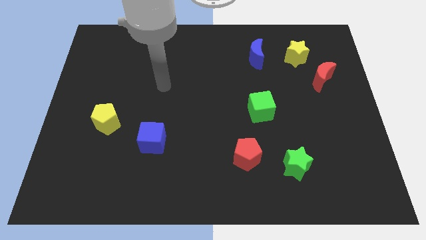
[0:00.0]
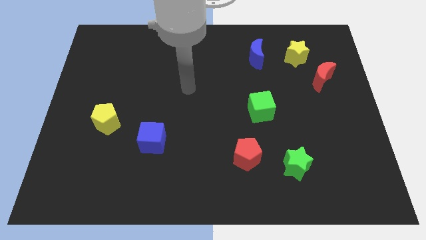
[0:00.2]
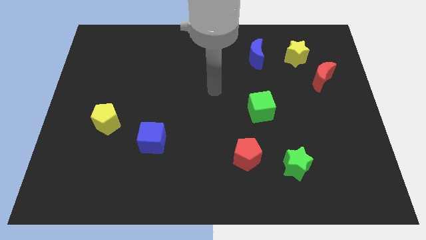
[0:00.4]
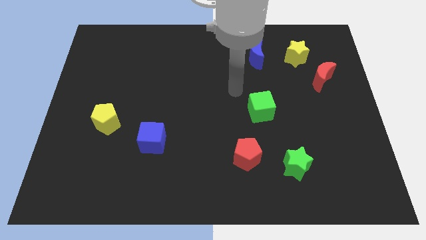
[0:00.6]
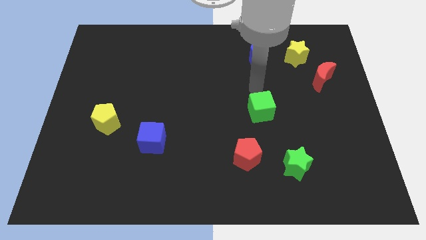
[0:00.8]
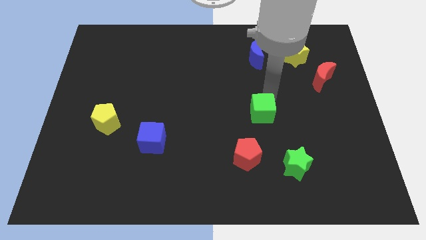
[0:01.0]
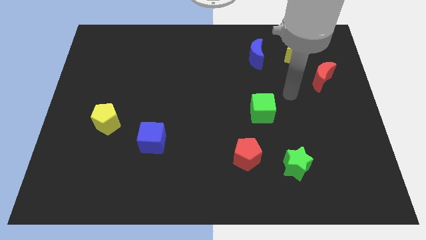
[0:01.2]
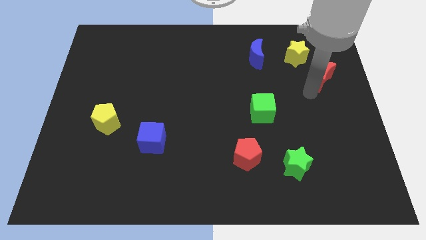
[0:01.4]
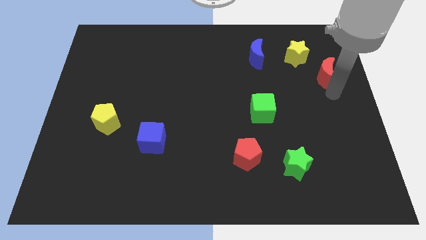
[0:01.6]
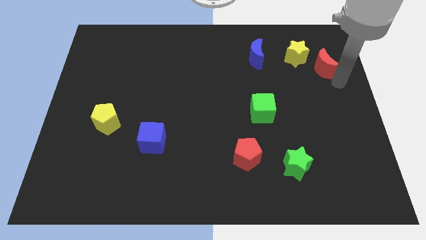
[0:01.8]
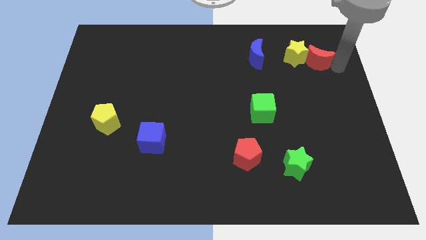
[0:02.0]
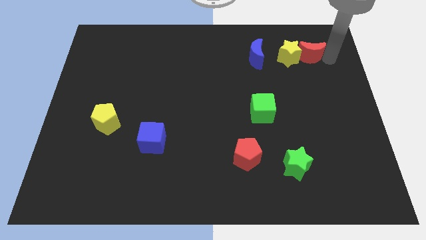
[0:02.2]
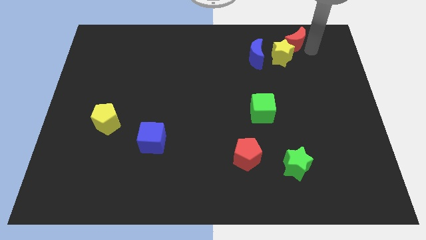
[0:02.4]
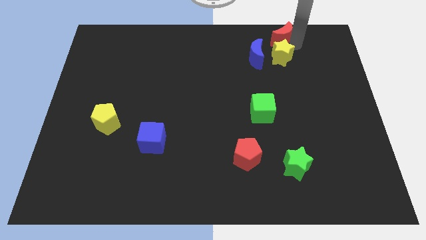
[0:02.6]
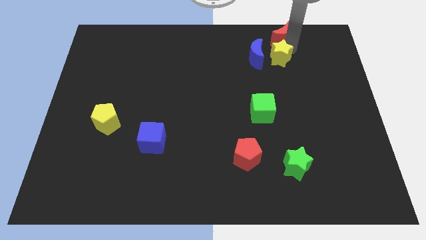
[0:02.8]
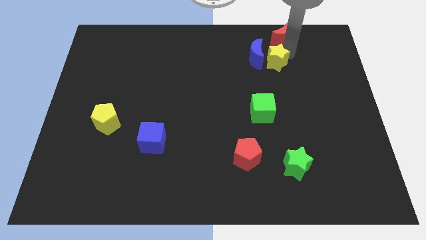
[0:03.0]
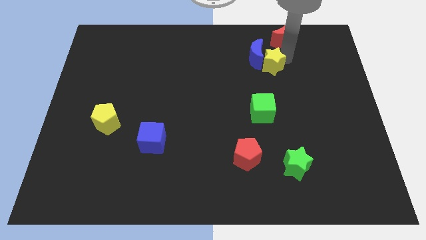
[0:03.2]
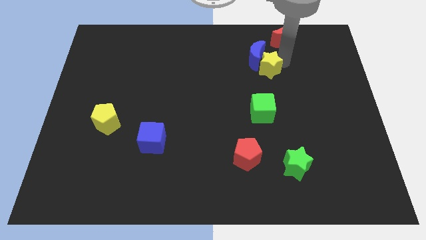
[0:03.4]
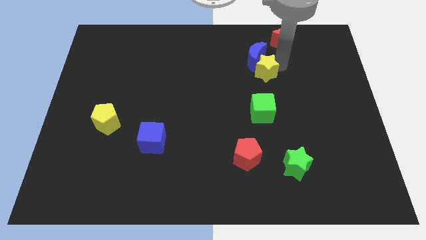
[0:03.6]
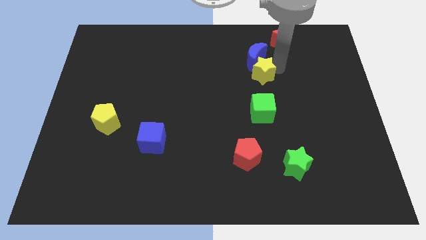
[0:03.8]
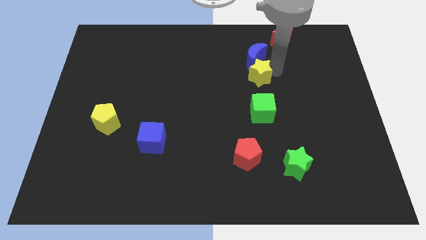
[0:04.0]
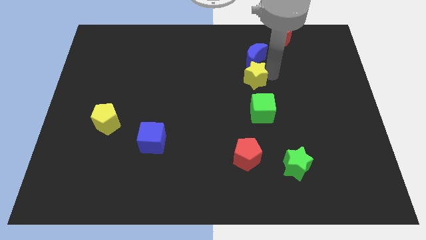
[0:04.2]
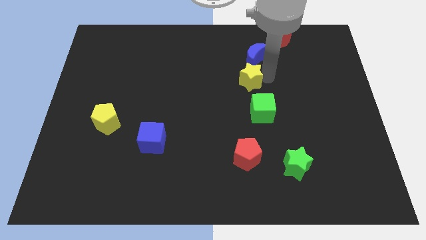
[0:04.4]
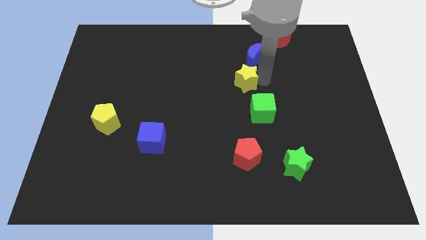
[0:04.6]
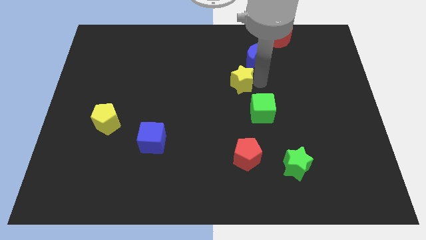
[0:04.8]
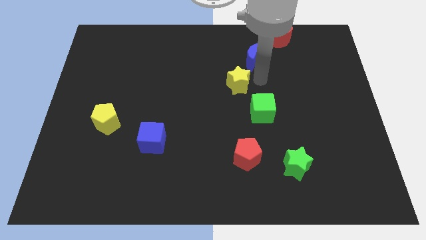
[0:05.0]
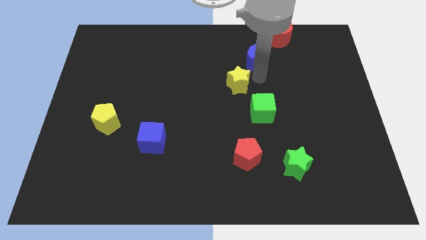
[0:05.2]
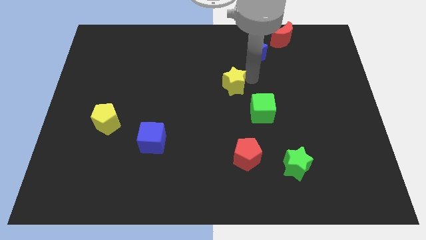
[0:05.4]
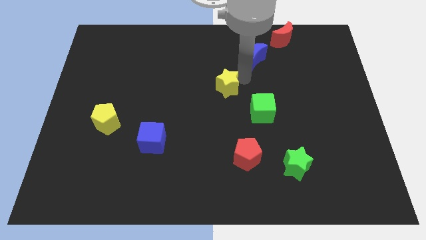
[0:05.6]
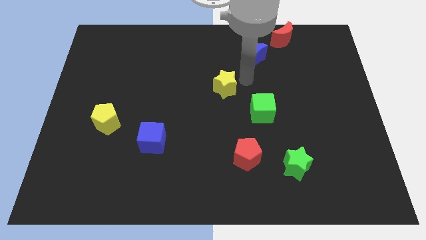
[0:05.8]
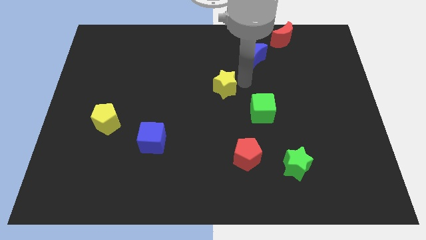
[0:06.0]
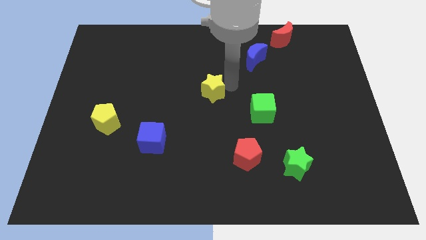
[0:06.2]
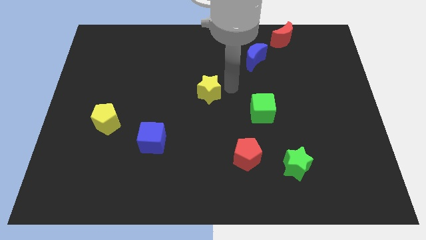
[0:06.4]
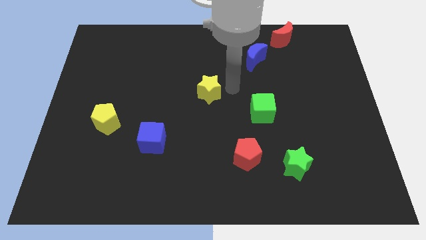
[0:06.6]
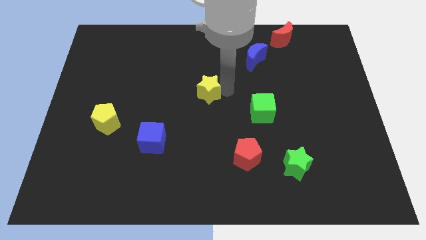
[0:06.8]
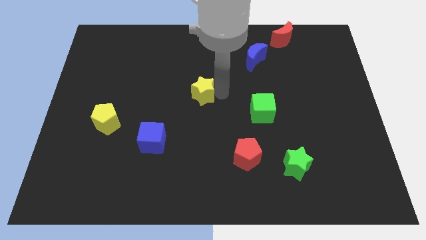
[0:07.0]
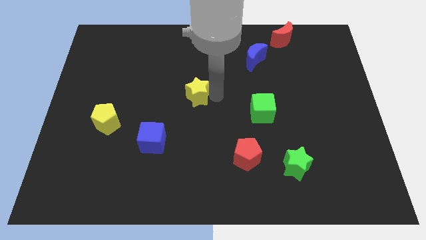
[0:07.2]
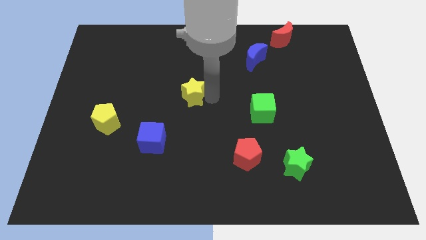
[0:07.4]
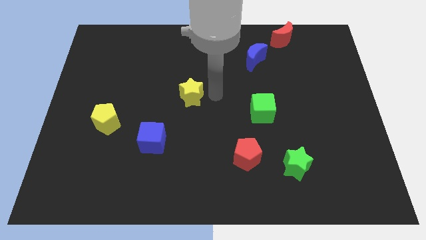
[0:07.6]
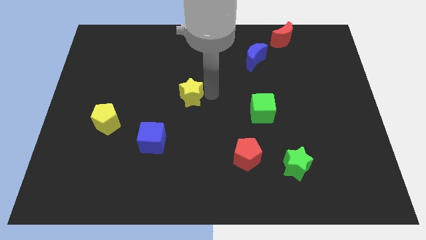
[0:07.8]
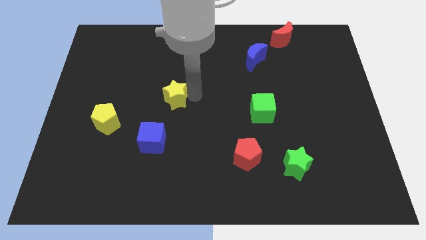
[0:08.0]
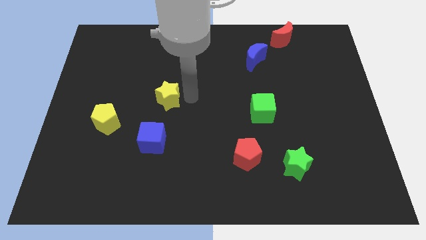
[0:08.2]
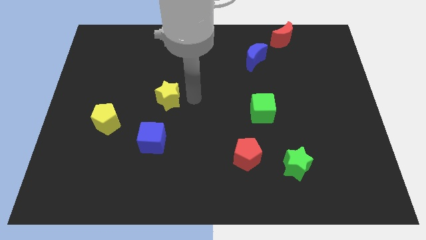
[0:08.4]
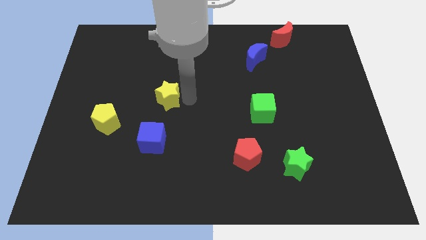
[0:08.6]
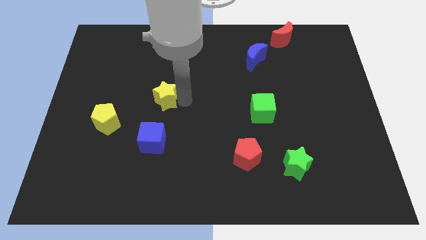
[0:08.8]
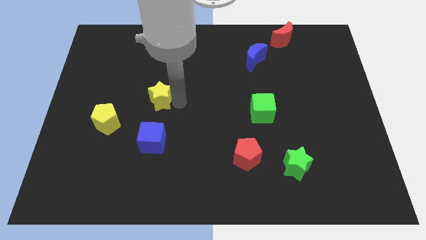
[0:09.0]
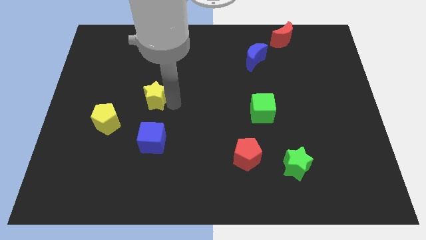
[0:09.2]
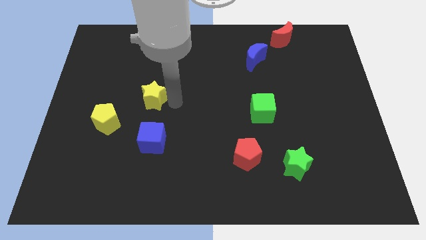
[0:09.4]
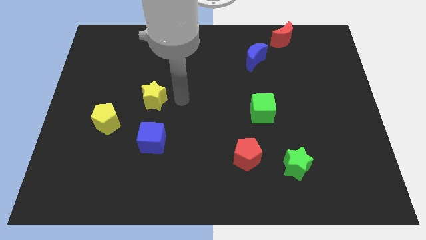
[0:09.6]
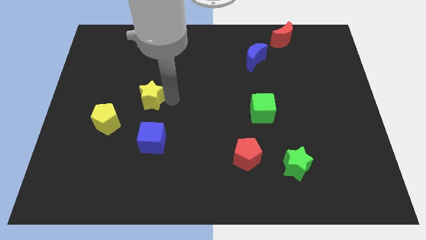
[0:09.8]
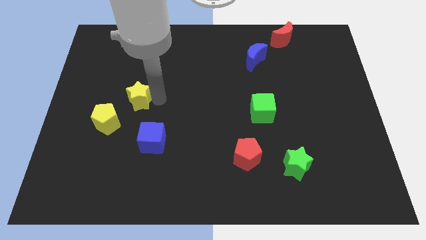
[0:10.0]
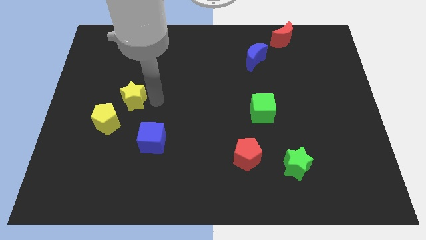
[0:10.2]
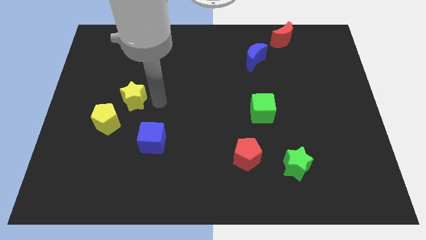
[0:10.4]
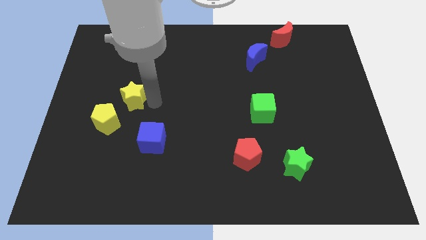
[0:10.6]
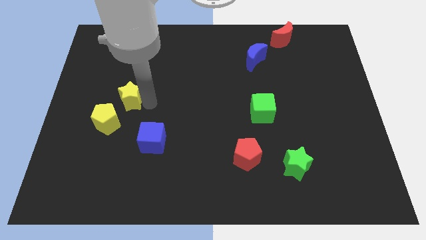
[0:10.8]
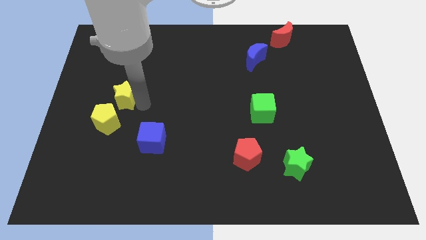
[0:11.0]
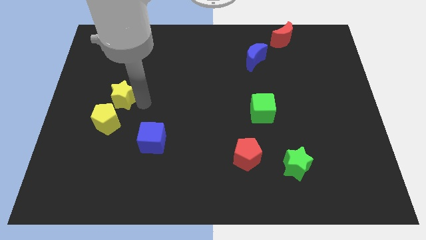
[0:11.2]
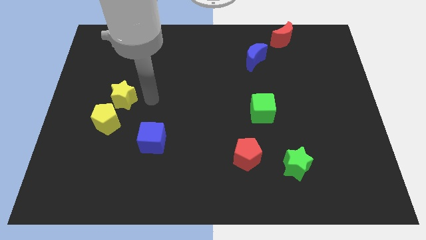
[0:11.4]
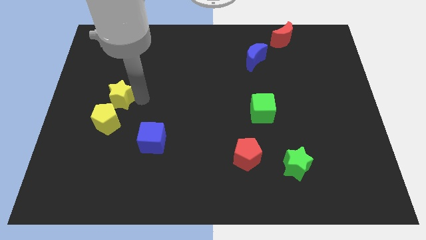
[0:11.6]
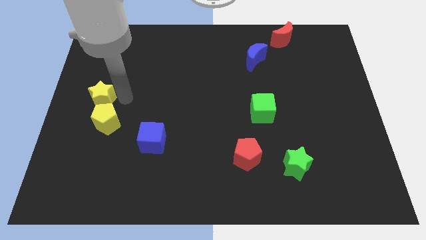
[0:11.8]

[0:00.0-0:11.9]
push the yellow star to the center left
